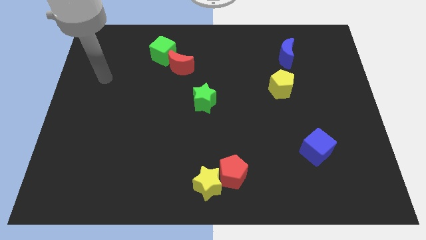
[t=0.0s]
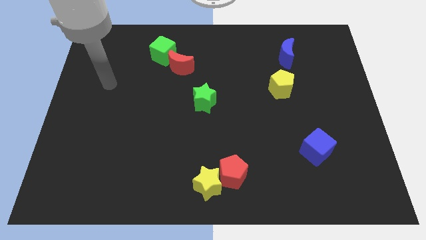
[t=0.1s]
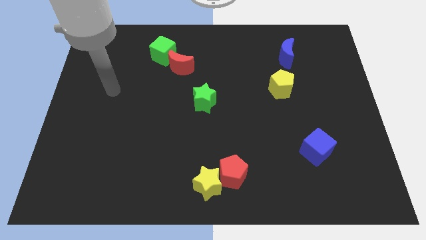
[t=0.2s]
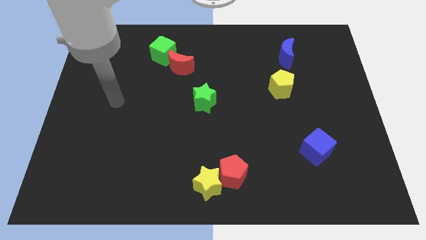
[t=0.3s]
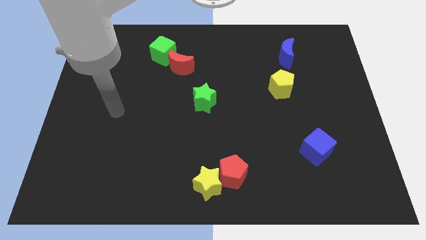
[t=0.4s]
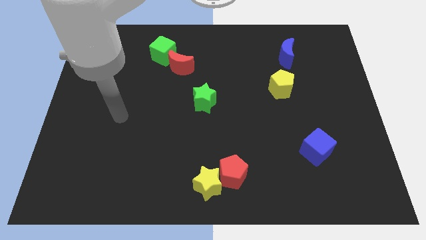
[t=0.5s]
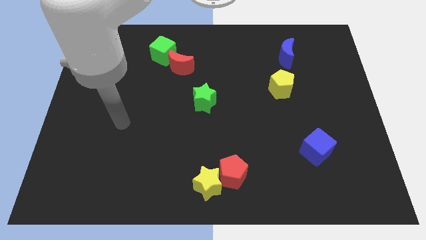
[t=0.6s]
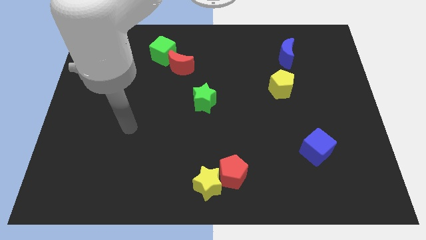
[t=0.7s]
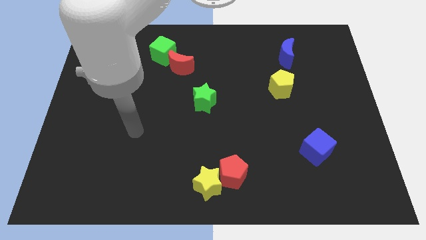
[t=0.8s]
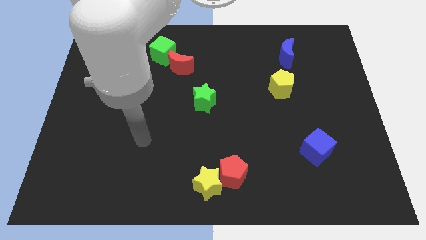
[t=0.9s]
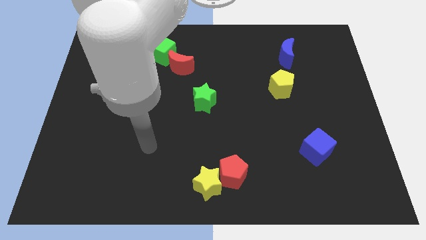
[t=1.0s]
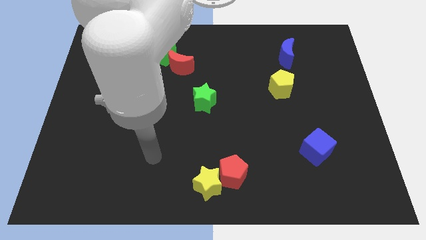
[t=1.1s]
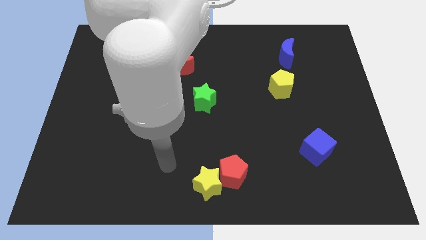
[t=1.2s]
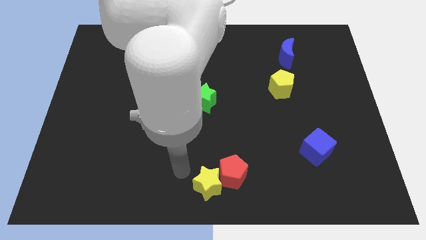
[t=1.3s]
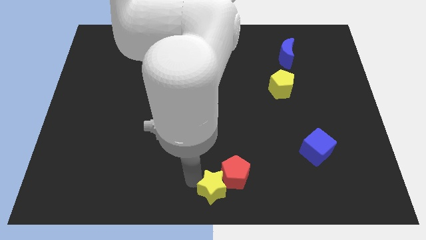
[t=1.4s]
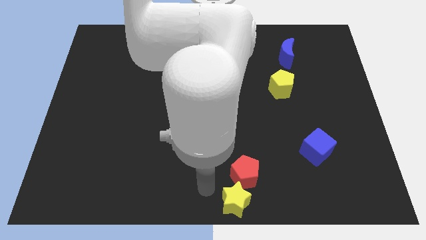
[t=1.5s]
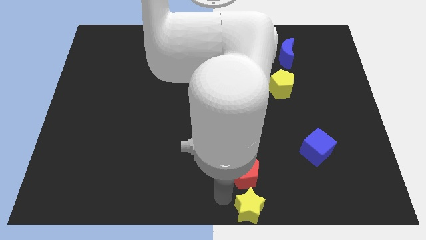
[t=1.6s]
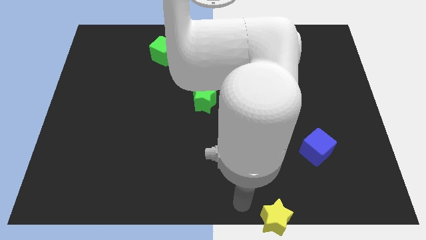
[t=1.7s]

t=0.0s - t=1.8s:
move the red pentagon away from the yellow star

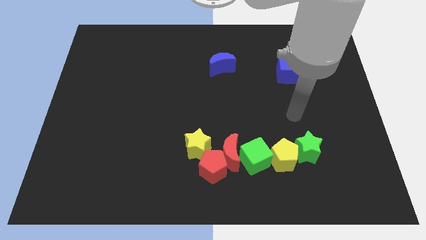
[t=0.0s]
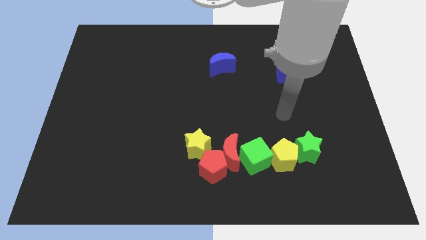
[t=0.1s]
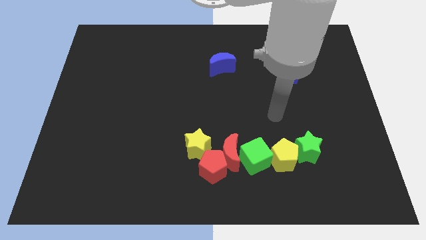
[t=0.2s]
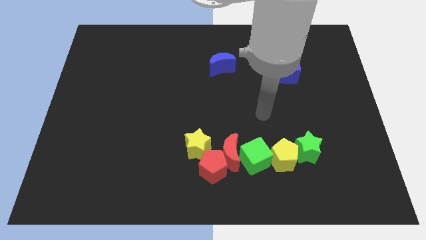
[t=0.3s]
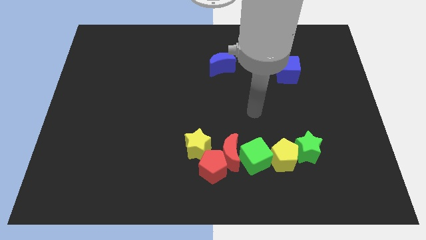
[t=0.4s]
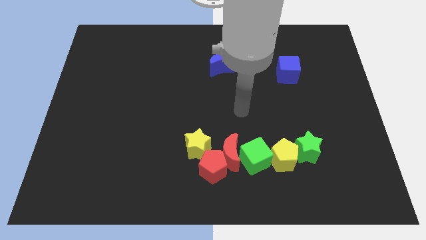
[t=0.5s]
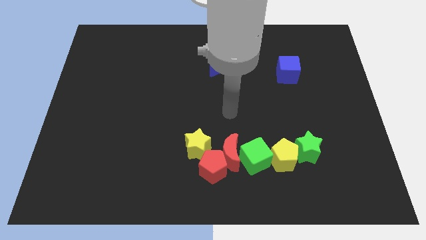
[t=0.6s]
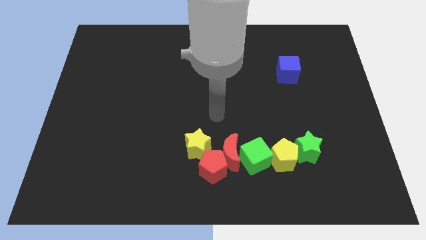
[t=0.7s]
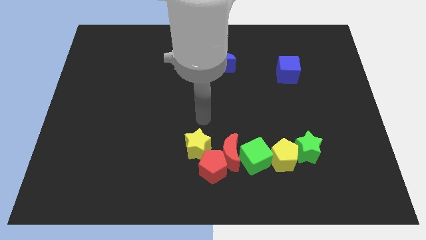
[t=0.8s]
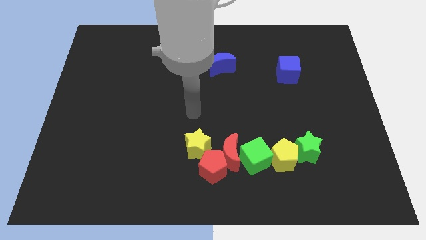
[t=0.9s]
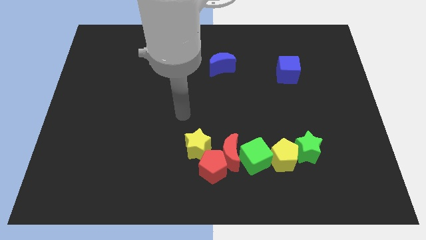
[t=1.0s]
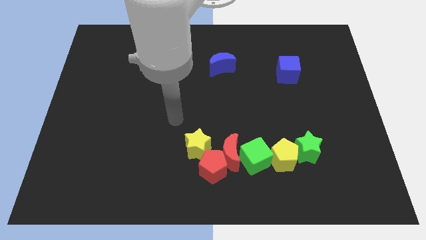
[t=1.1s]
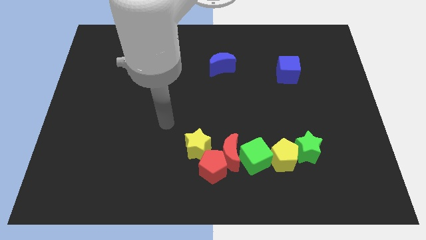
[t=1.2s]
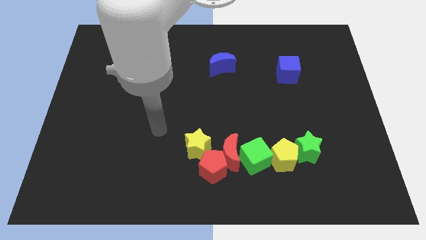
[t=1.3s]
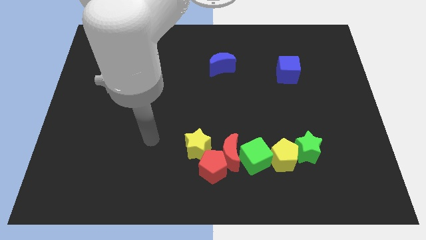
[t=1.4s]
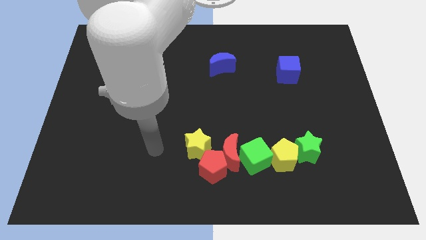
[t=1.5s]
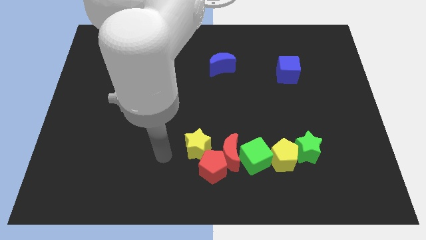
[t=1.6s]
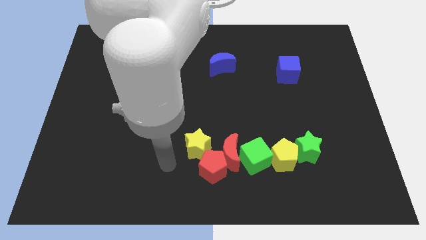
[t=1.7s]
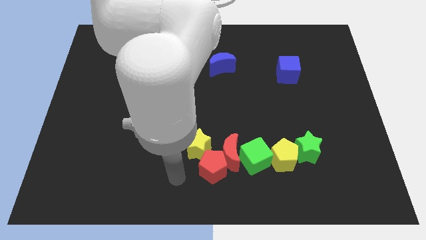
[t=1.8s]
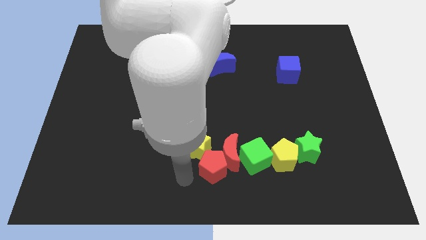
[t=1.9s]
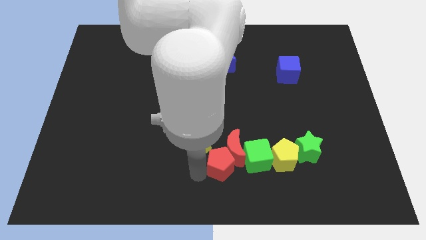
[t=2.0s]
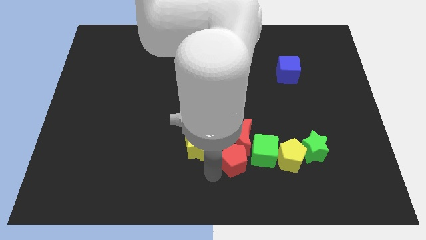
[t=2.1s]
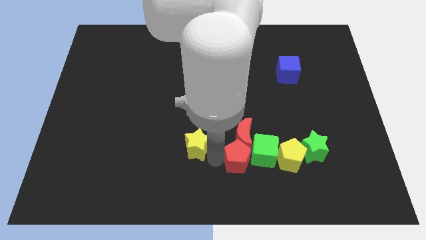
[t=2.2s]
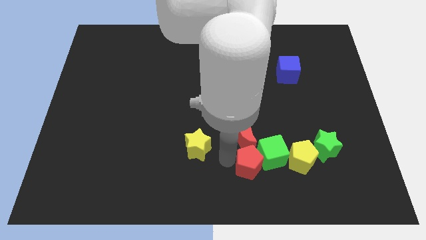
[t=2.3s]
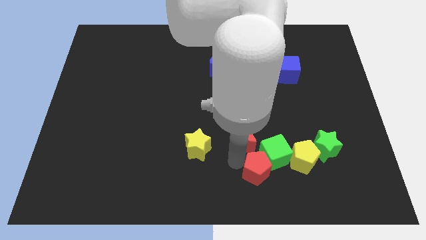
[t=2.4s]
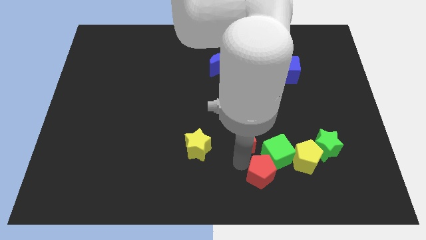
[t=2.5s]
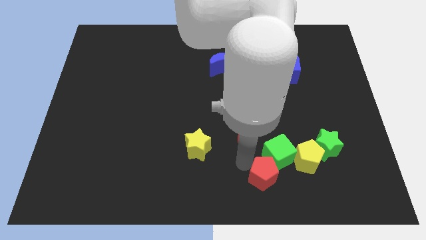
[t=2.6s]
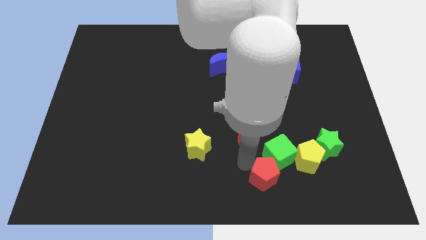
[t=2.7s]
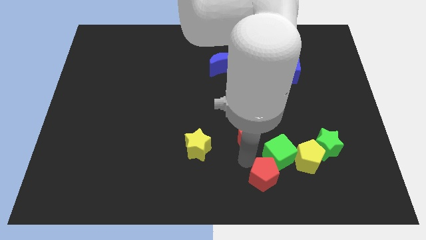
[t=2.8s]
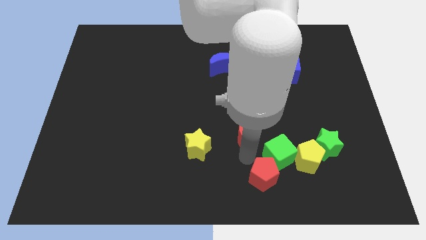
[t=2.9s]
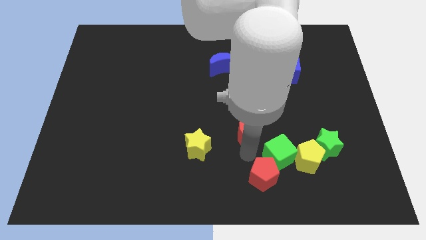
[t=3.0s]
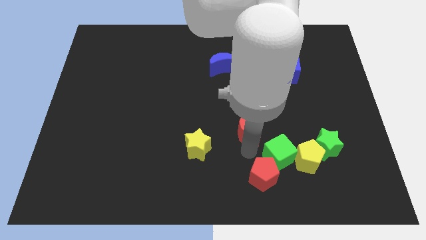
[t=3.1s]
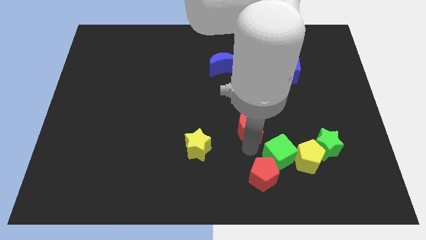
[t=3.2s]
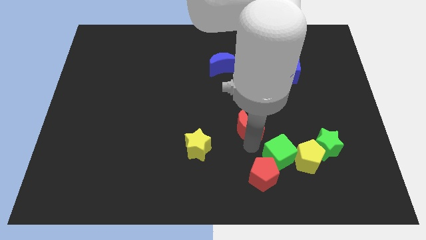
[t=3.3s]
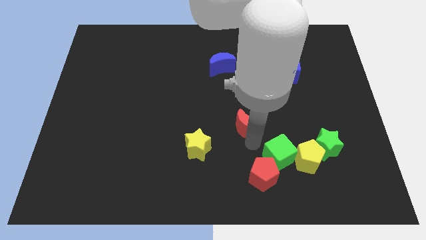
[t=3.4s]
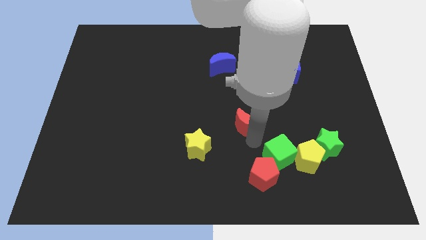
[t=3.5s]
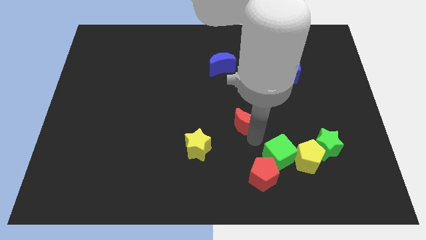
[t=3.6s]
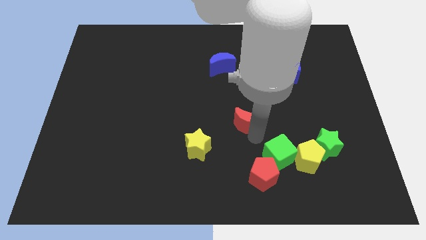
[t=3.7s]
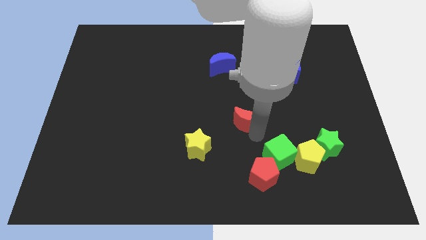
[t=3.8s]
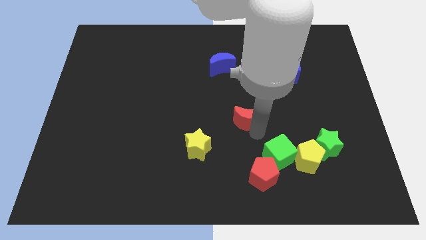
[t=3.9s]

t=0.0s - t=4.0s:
pull the red moon apart from the group

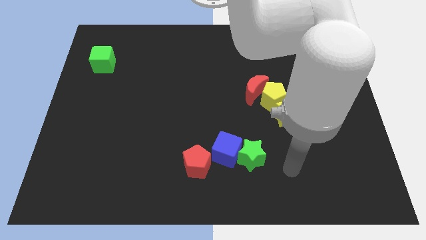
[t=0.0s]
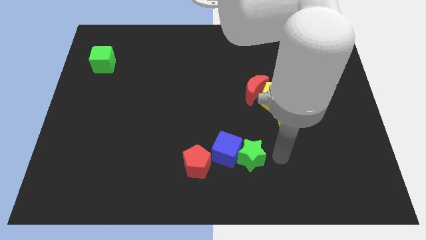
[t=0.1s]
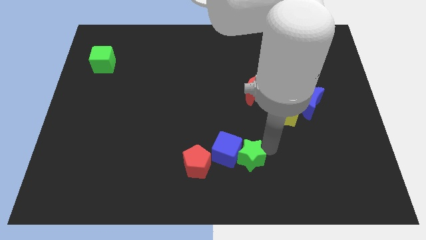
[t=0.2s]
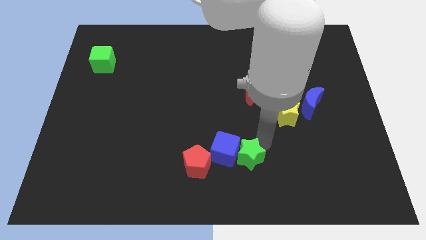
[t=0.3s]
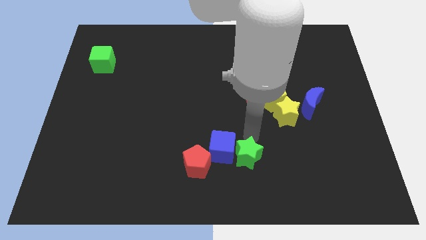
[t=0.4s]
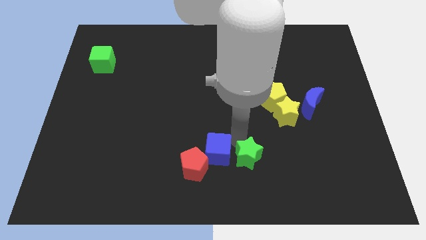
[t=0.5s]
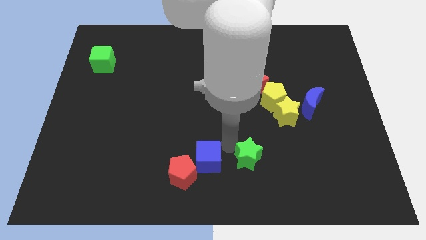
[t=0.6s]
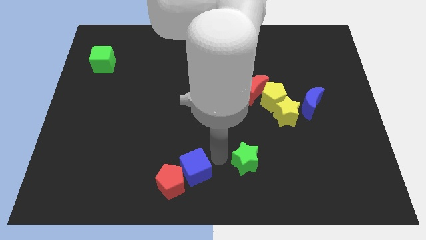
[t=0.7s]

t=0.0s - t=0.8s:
pull the green star apart from the blue cube

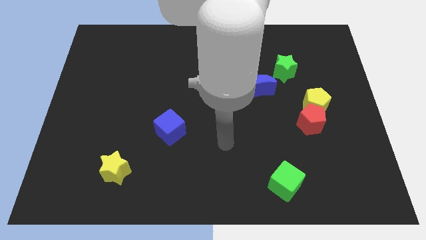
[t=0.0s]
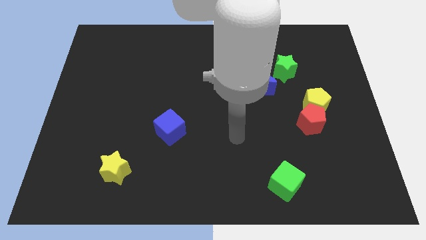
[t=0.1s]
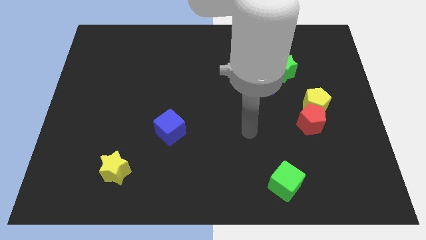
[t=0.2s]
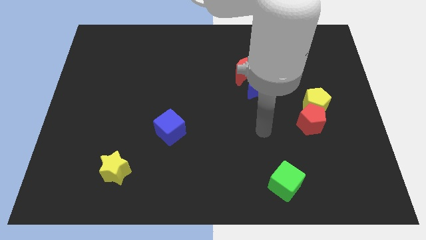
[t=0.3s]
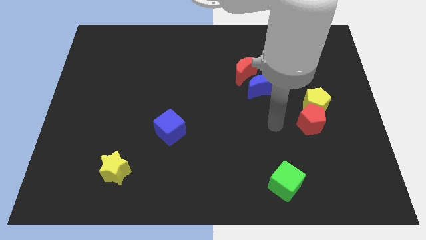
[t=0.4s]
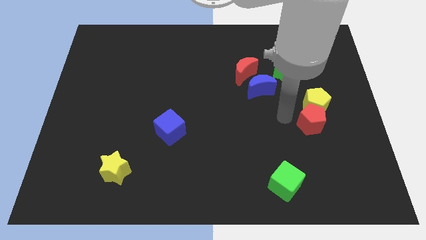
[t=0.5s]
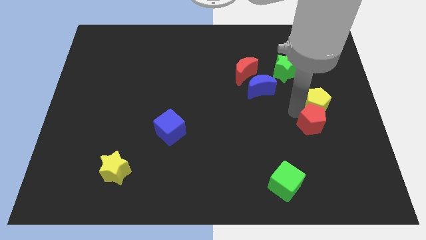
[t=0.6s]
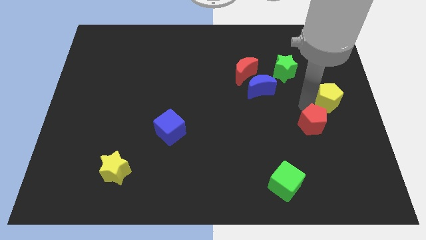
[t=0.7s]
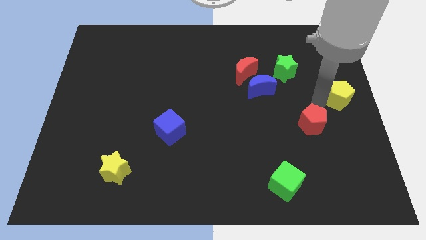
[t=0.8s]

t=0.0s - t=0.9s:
move the red pentagon away from the yellow pentagon

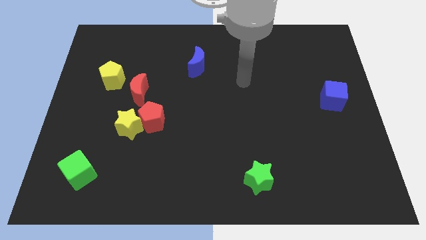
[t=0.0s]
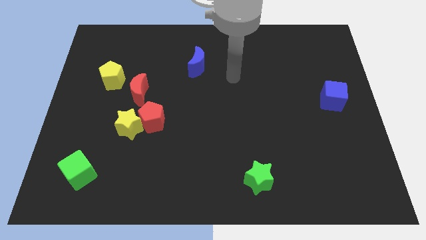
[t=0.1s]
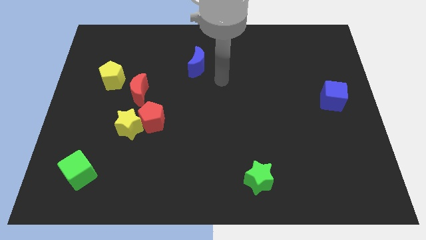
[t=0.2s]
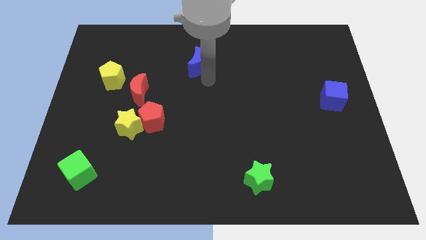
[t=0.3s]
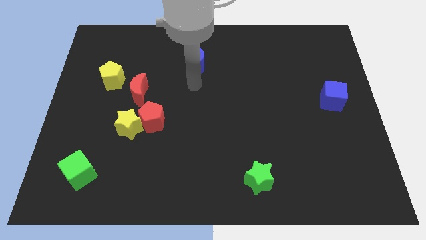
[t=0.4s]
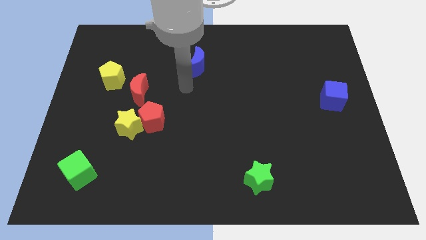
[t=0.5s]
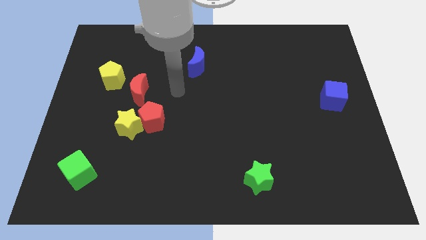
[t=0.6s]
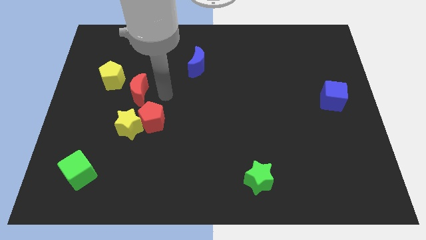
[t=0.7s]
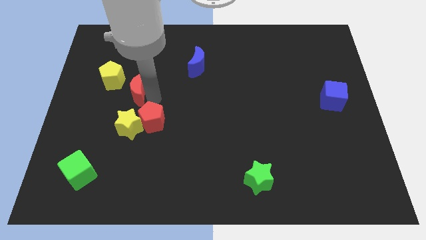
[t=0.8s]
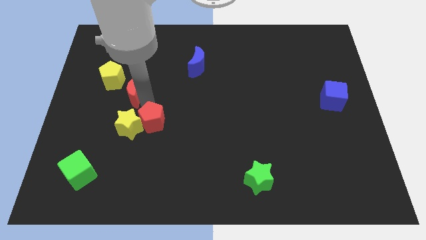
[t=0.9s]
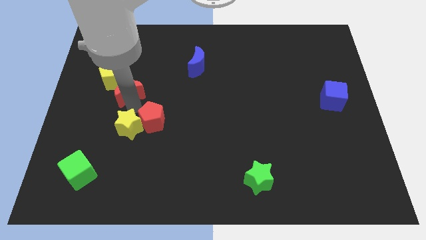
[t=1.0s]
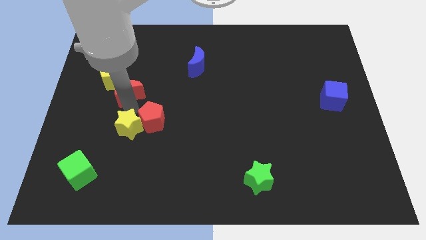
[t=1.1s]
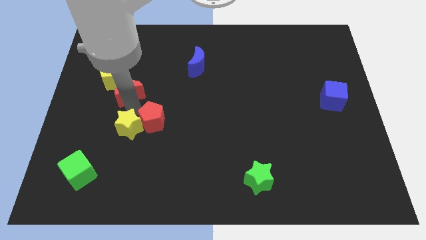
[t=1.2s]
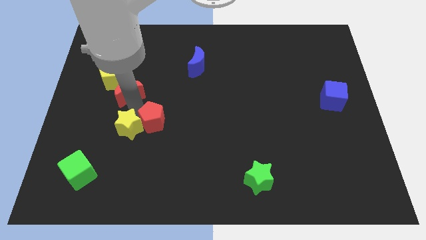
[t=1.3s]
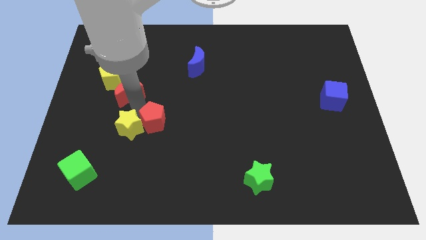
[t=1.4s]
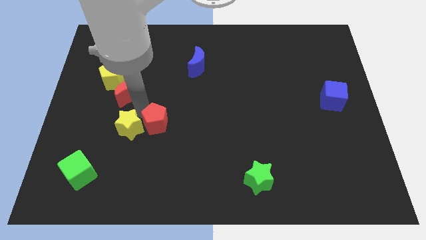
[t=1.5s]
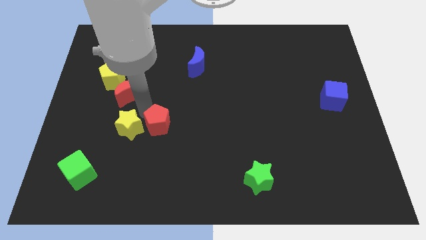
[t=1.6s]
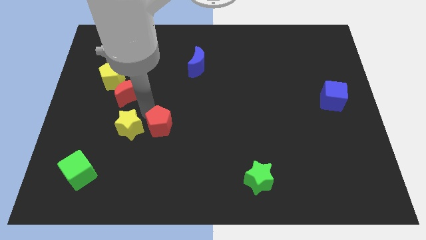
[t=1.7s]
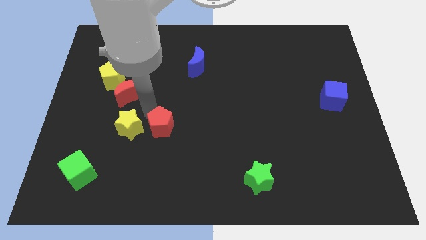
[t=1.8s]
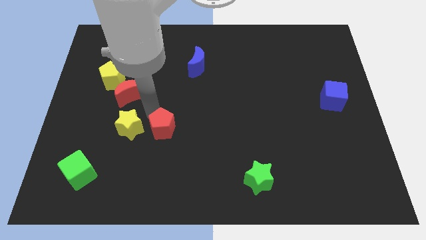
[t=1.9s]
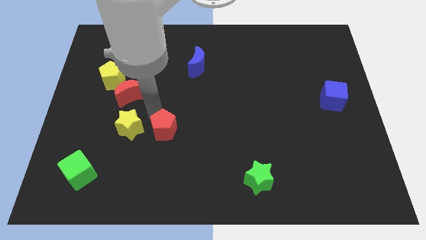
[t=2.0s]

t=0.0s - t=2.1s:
move the red pentagon away from the yellow star and red moon
